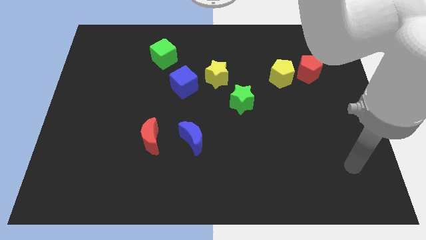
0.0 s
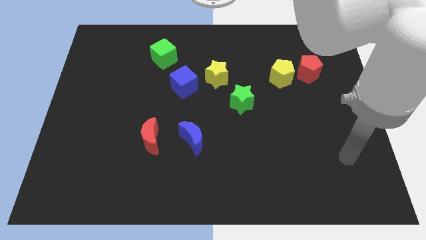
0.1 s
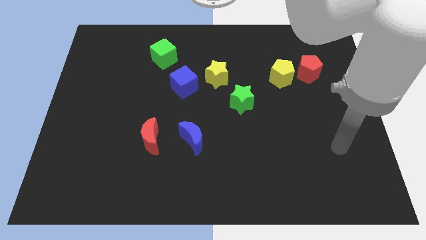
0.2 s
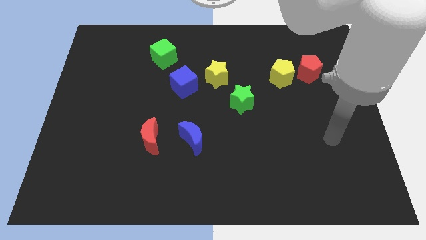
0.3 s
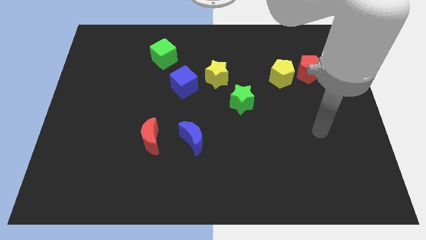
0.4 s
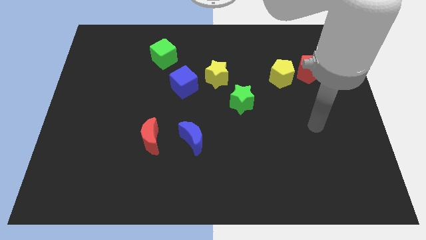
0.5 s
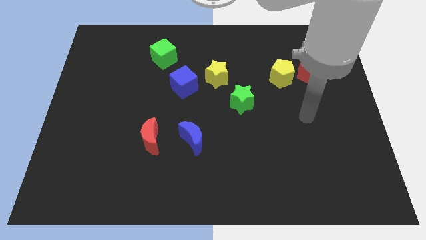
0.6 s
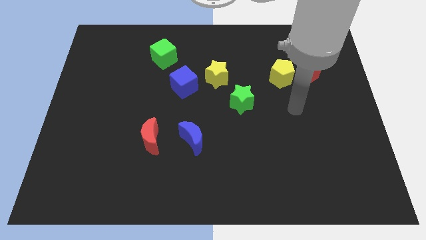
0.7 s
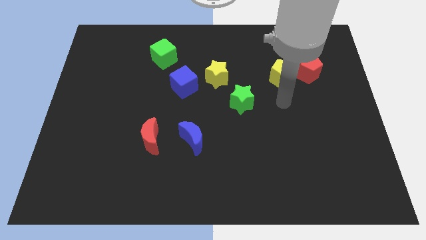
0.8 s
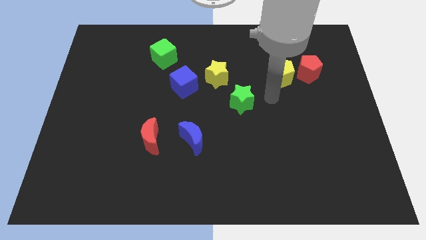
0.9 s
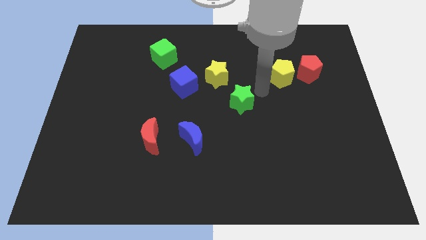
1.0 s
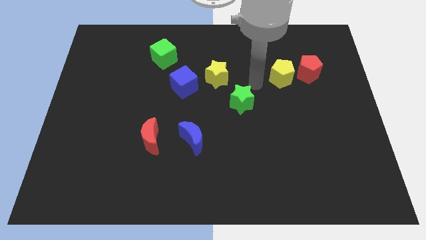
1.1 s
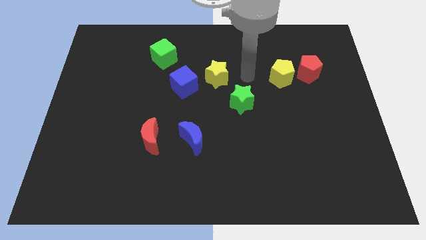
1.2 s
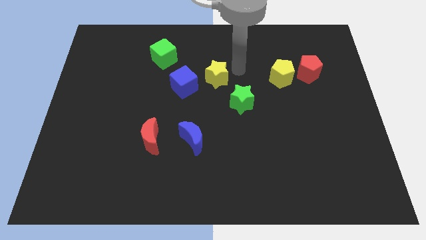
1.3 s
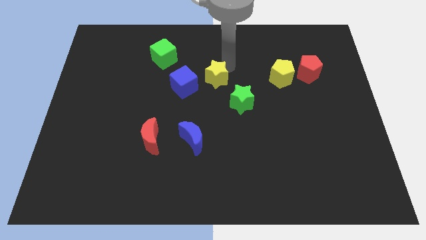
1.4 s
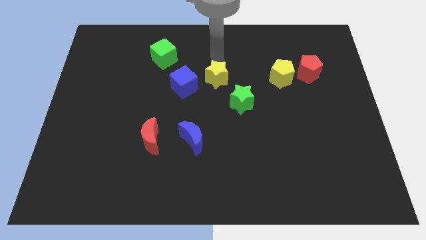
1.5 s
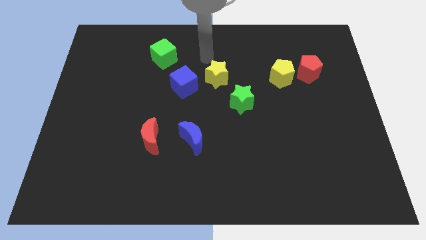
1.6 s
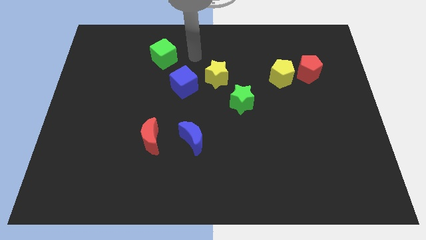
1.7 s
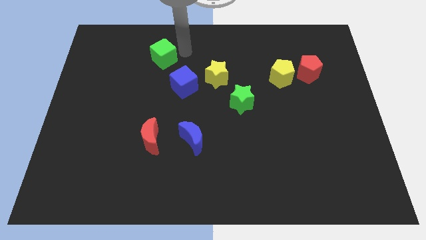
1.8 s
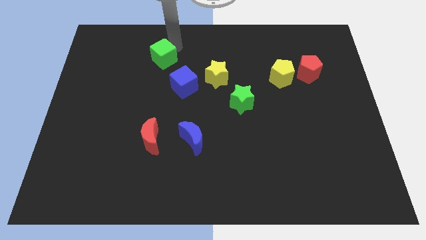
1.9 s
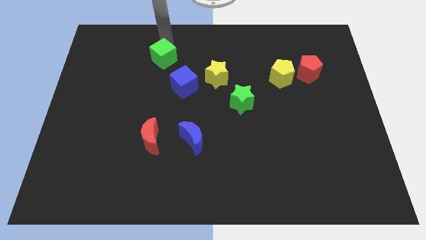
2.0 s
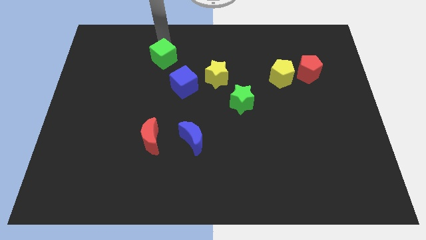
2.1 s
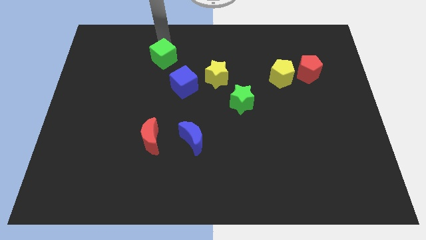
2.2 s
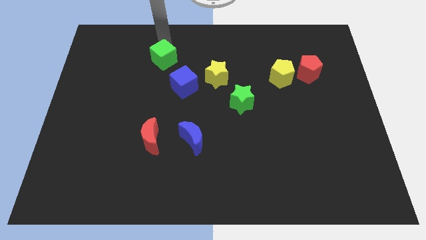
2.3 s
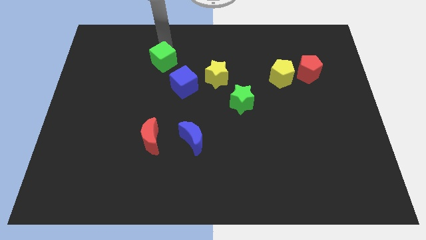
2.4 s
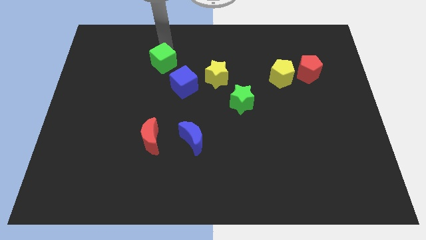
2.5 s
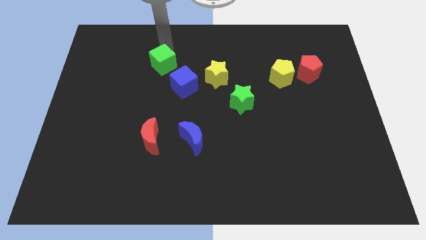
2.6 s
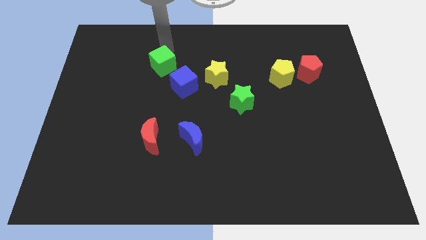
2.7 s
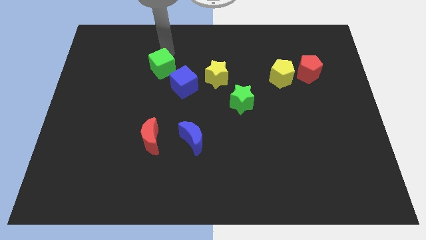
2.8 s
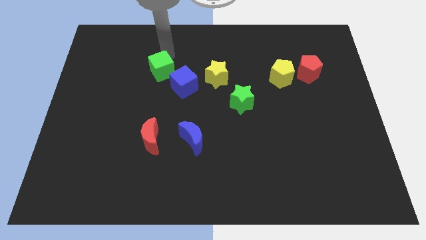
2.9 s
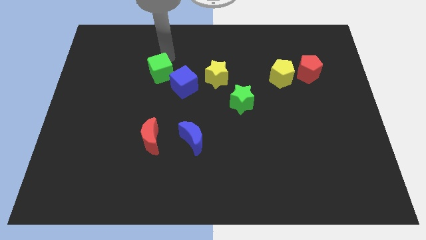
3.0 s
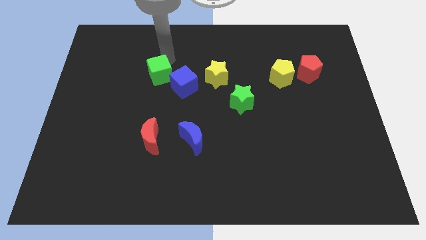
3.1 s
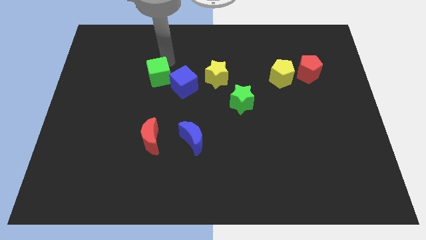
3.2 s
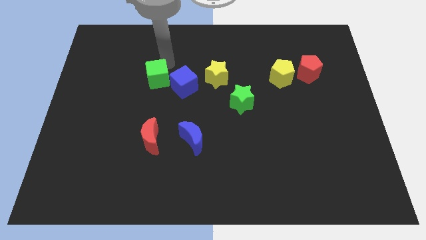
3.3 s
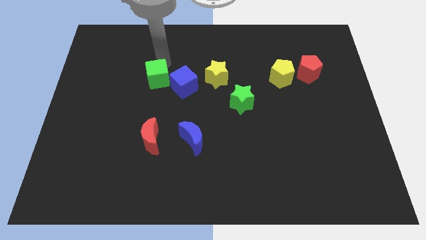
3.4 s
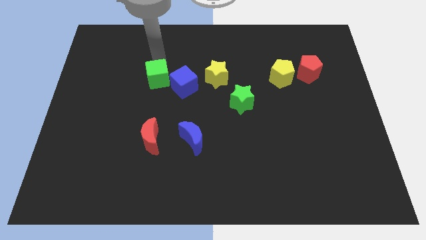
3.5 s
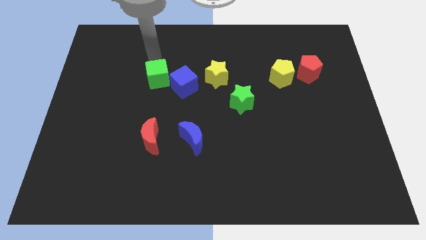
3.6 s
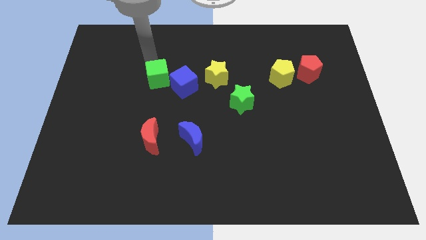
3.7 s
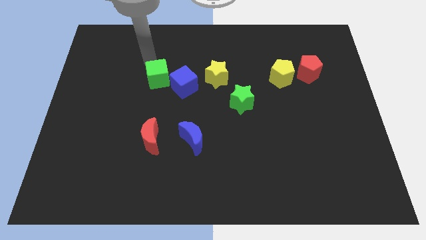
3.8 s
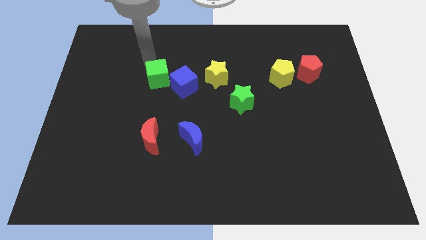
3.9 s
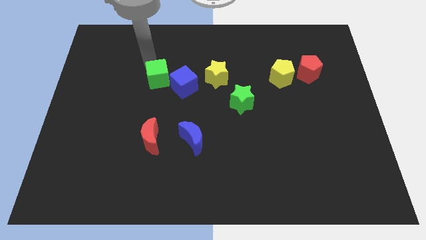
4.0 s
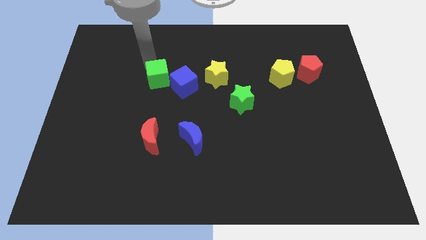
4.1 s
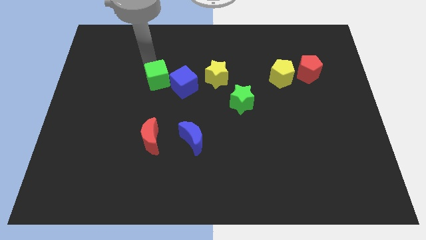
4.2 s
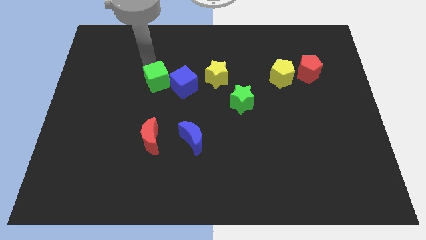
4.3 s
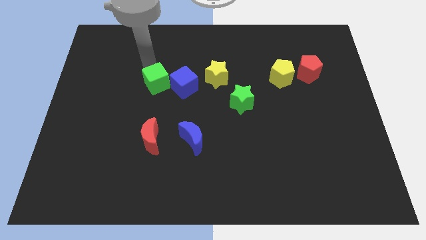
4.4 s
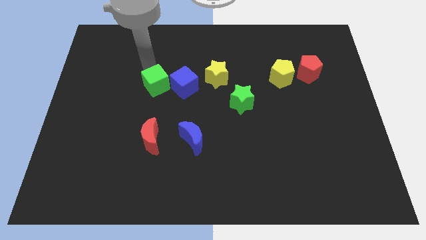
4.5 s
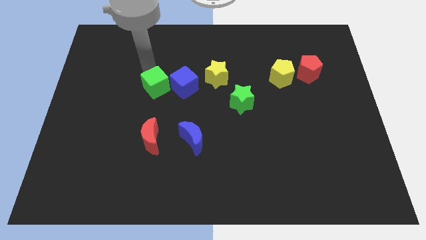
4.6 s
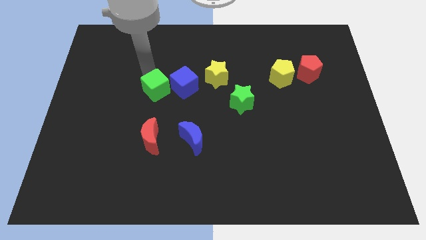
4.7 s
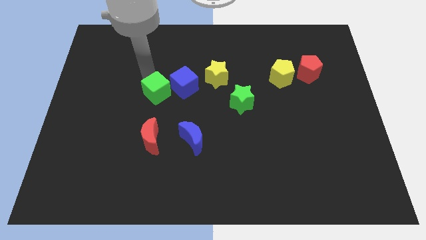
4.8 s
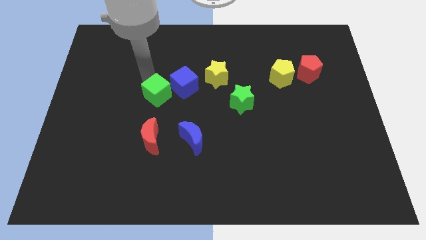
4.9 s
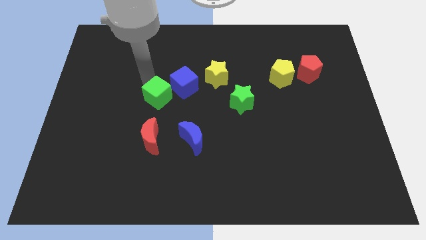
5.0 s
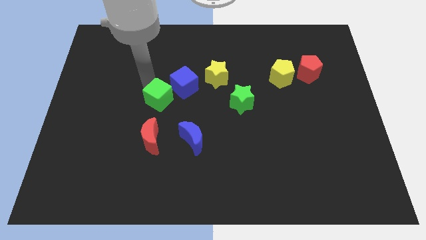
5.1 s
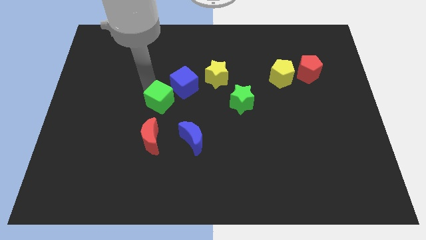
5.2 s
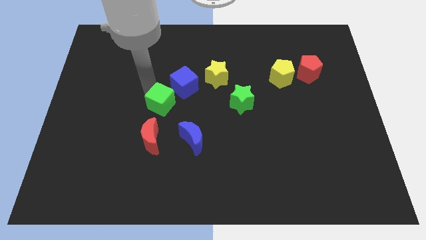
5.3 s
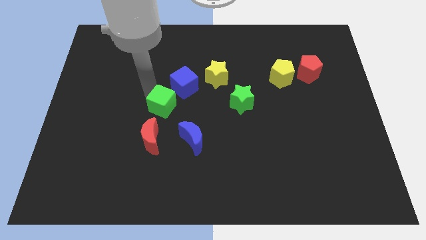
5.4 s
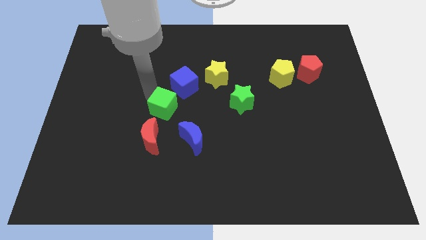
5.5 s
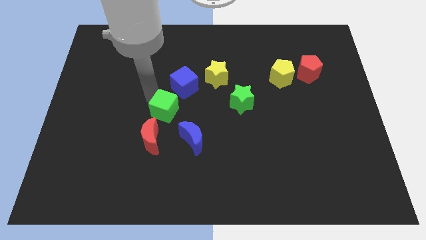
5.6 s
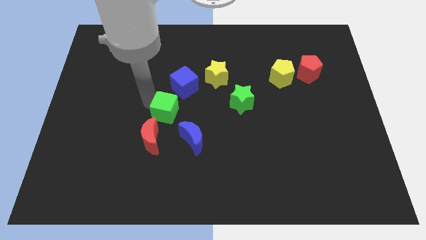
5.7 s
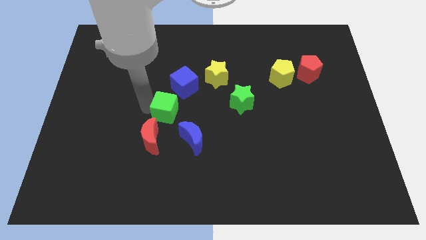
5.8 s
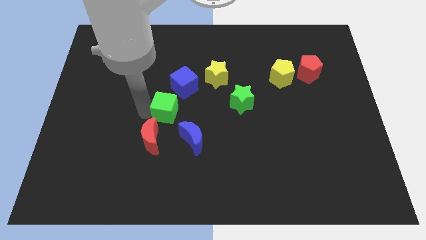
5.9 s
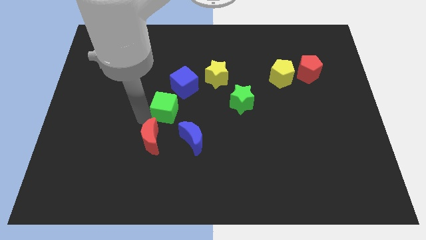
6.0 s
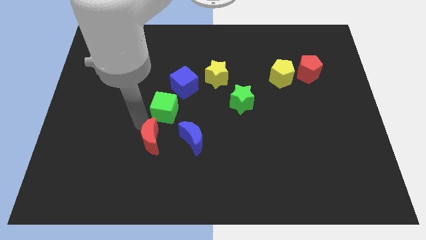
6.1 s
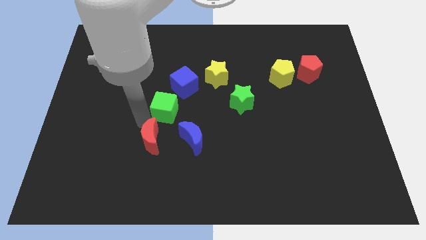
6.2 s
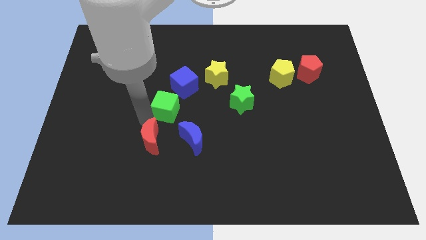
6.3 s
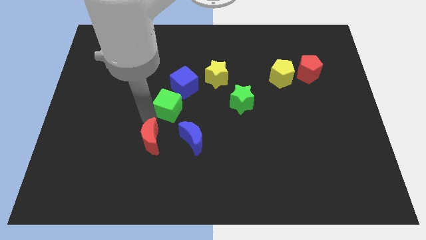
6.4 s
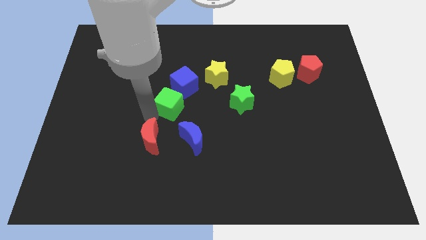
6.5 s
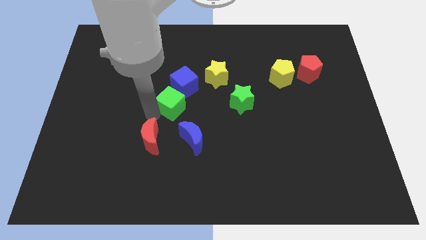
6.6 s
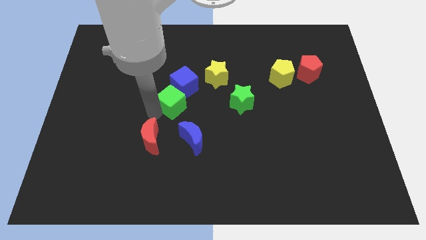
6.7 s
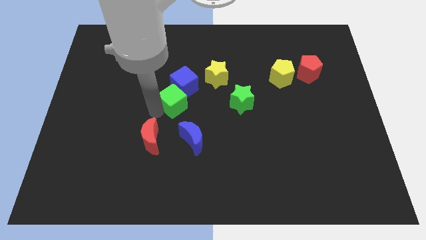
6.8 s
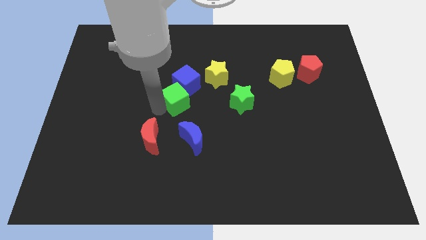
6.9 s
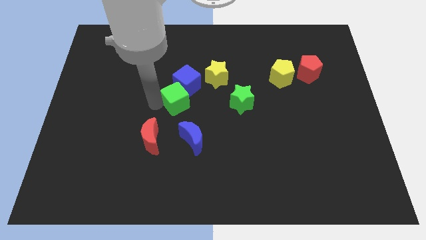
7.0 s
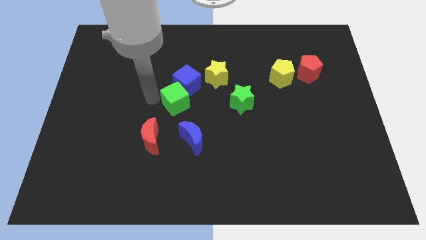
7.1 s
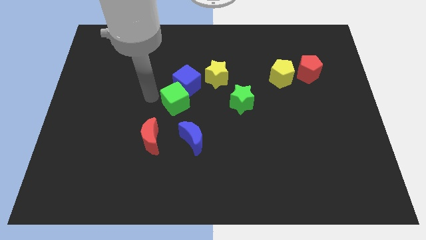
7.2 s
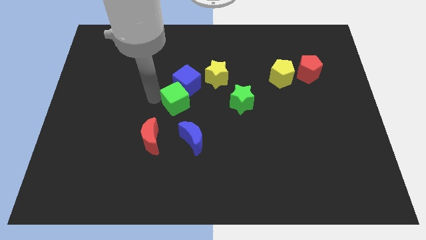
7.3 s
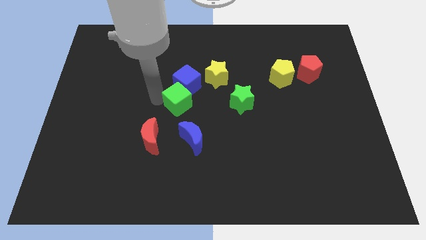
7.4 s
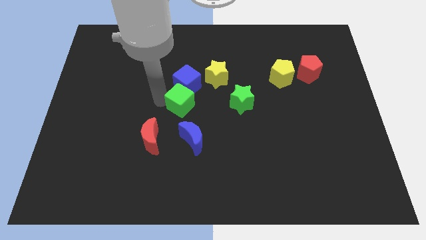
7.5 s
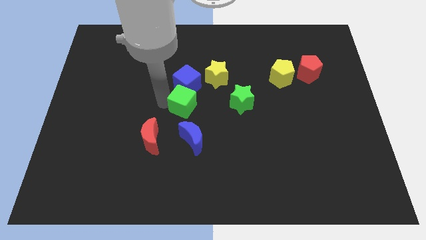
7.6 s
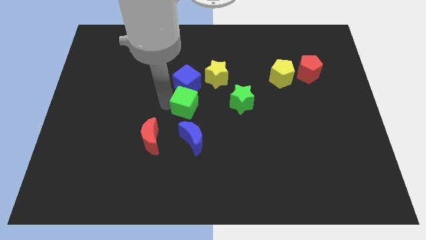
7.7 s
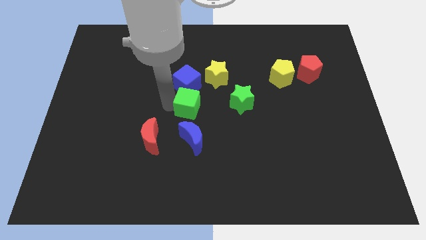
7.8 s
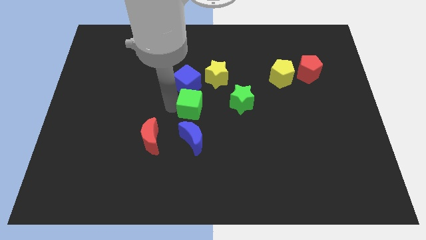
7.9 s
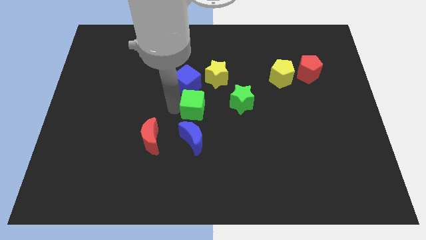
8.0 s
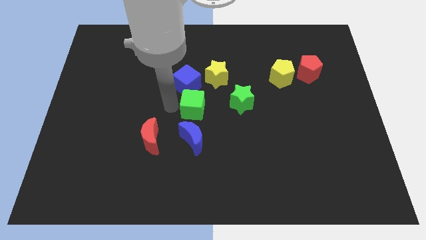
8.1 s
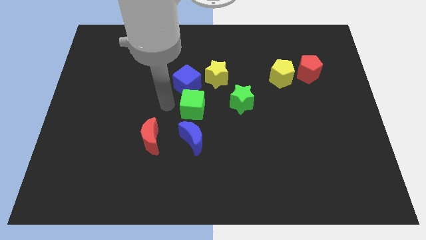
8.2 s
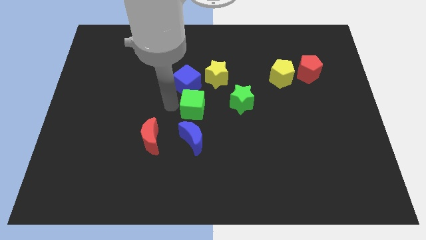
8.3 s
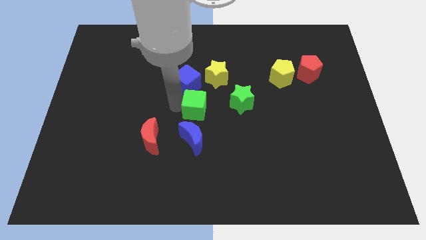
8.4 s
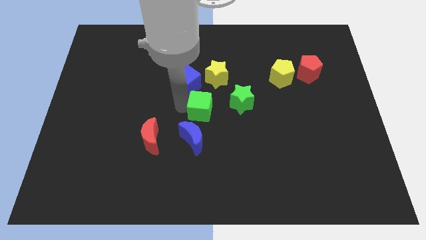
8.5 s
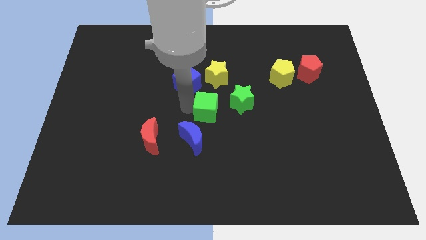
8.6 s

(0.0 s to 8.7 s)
slide the green cube diagonally downwards and right
